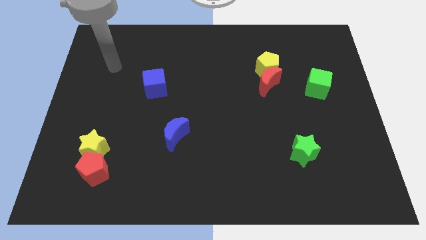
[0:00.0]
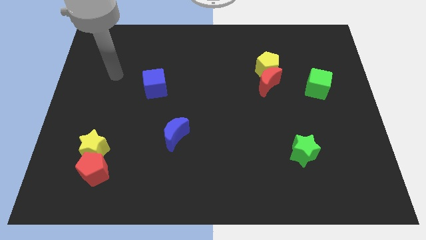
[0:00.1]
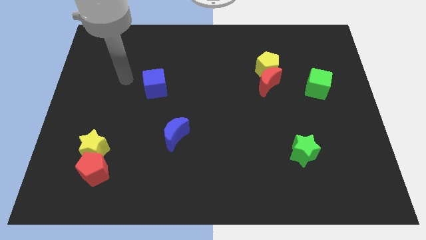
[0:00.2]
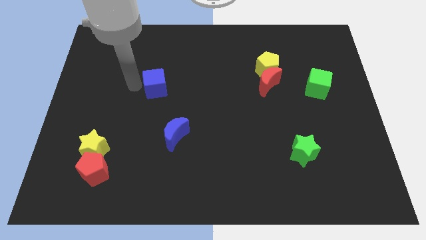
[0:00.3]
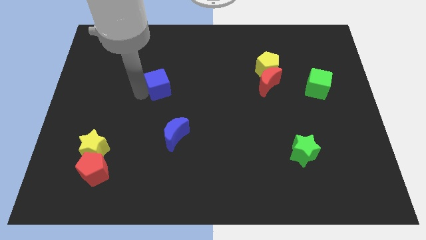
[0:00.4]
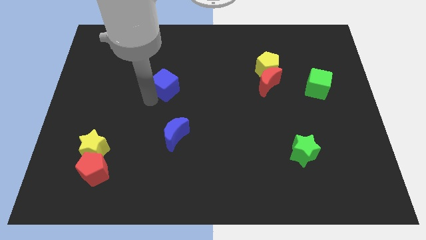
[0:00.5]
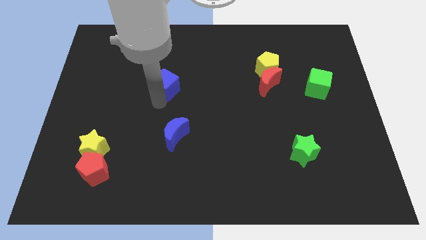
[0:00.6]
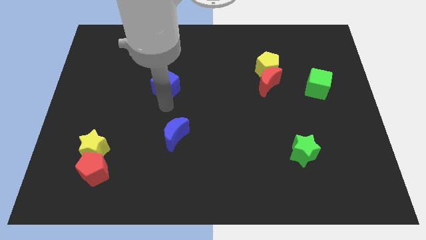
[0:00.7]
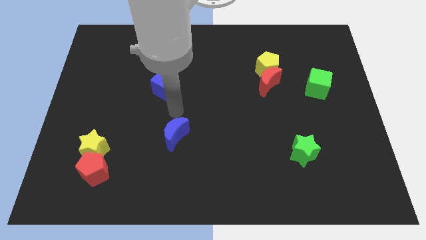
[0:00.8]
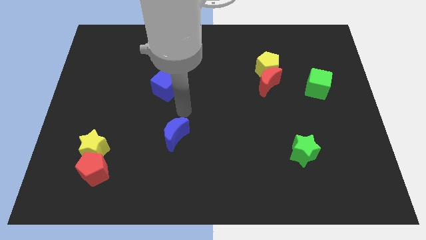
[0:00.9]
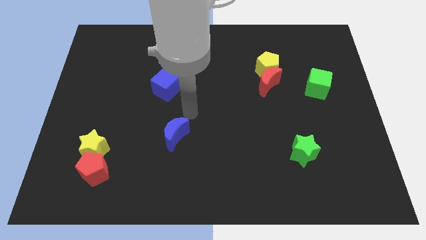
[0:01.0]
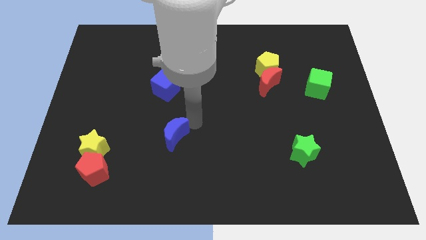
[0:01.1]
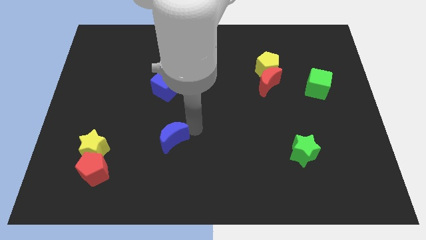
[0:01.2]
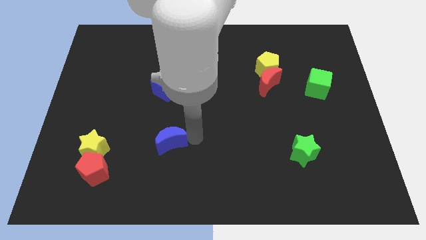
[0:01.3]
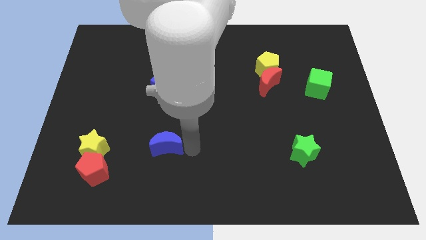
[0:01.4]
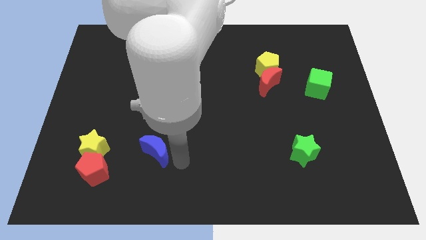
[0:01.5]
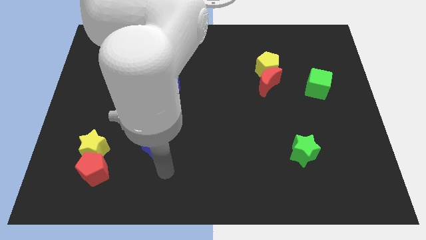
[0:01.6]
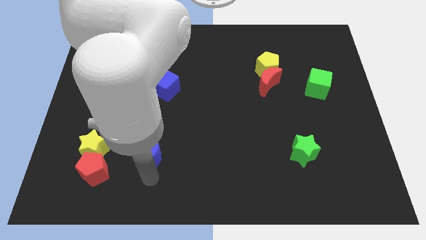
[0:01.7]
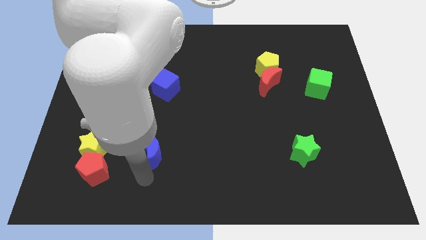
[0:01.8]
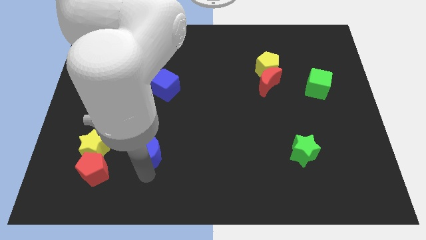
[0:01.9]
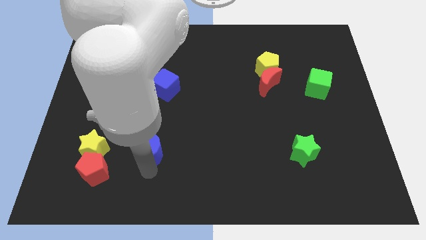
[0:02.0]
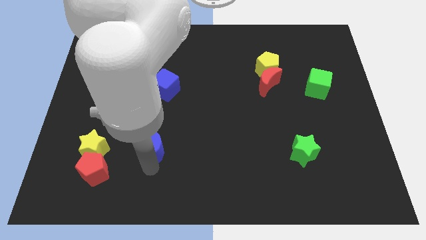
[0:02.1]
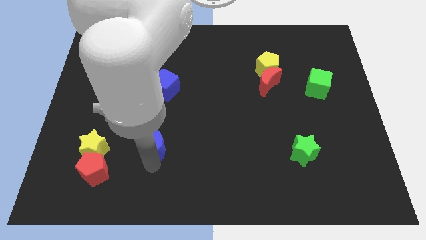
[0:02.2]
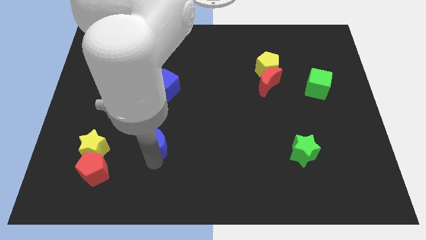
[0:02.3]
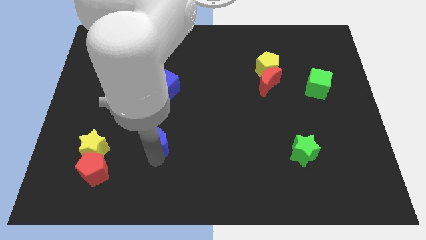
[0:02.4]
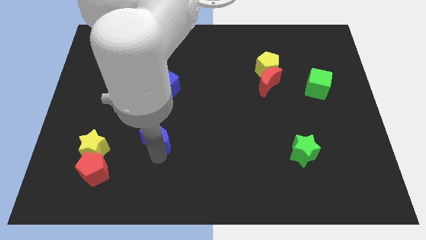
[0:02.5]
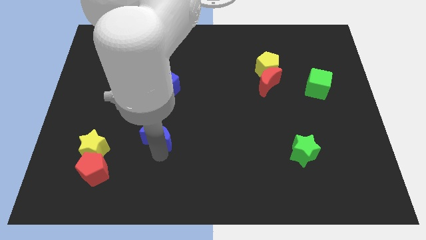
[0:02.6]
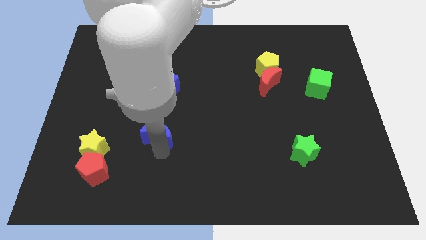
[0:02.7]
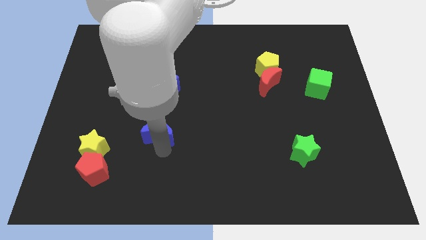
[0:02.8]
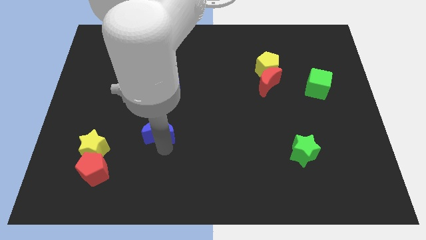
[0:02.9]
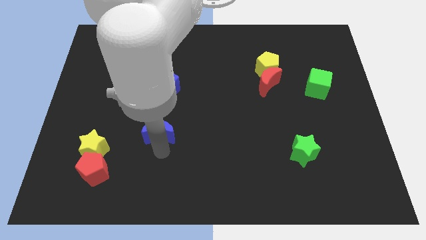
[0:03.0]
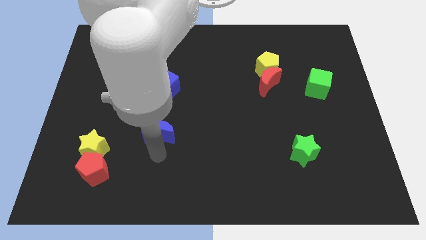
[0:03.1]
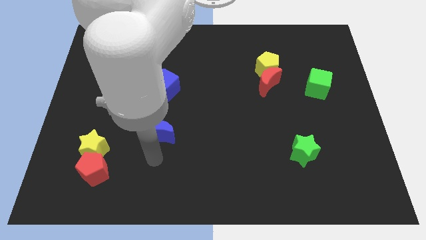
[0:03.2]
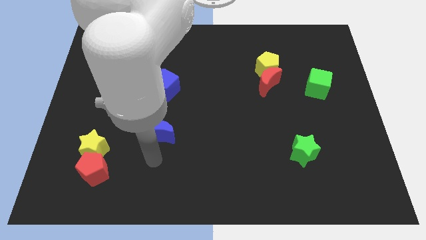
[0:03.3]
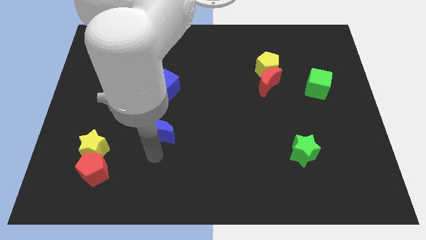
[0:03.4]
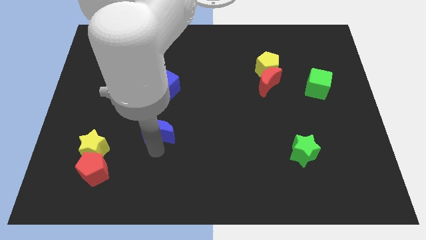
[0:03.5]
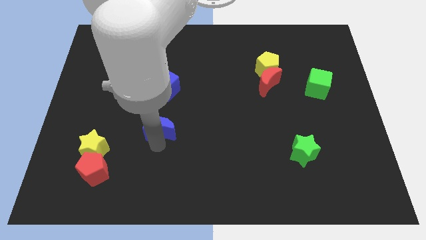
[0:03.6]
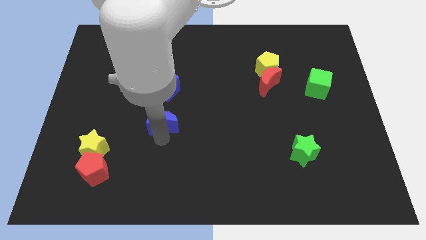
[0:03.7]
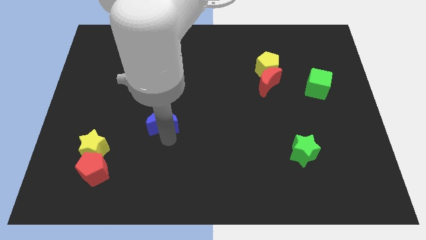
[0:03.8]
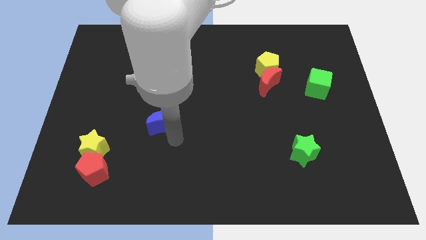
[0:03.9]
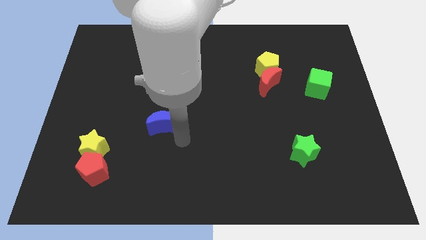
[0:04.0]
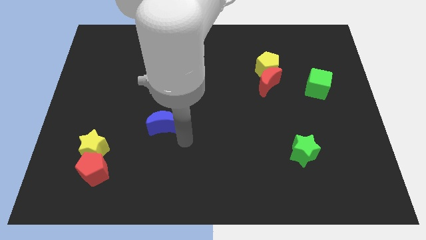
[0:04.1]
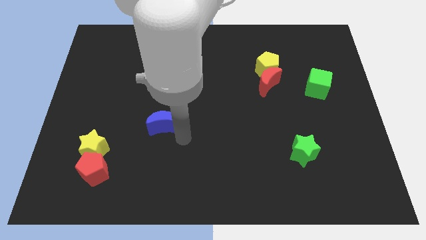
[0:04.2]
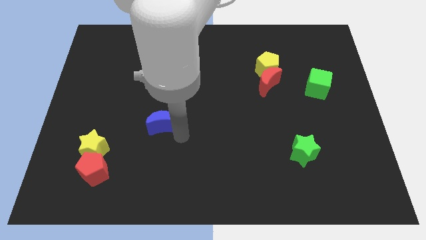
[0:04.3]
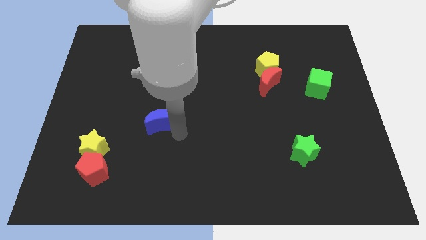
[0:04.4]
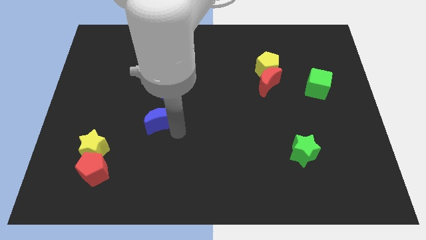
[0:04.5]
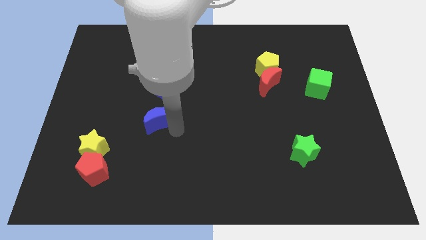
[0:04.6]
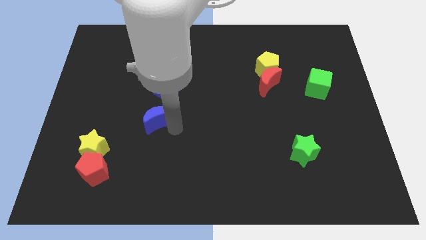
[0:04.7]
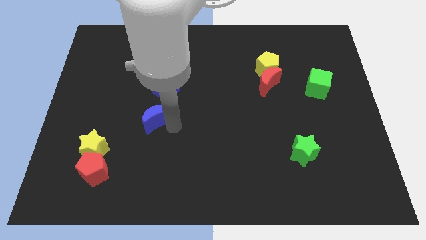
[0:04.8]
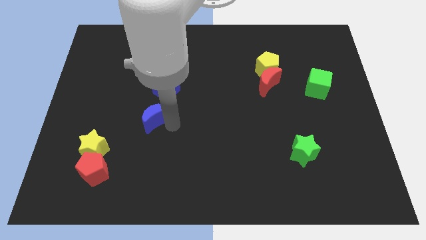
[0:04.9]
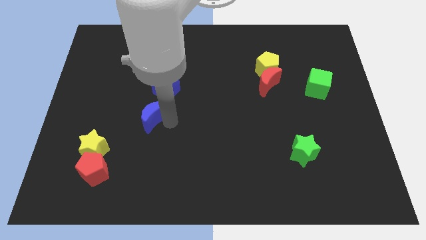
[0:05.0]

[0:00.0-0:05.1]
slide the blue moon slightly up and then to the left

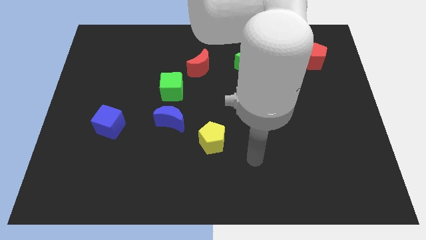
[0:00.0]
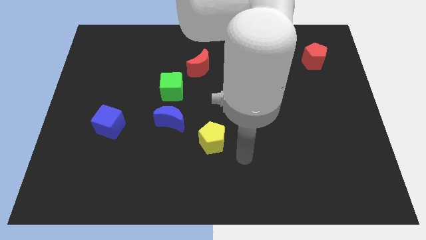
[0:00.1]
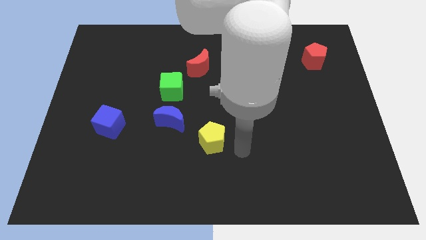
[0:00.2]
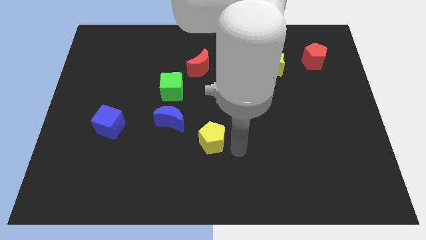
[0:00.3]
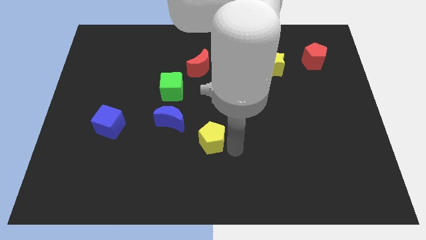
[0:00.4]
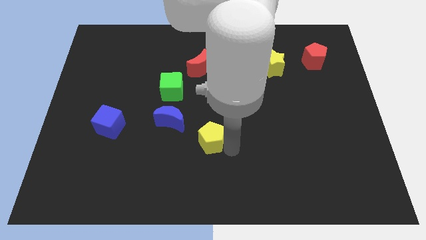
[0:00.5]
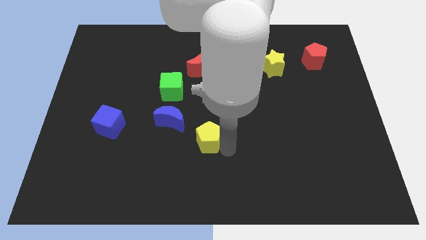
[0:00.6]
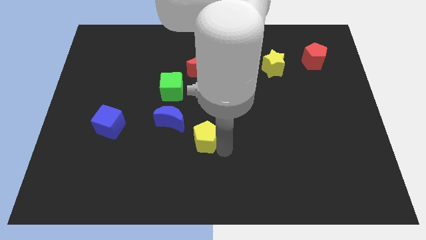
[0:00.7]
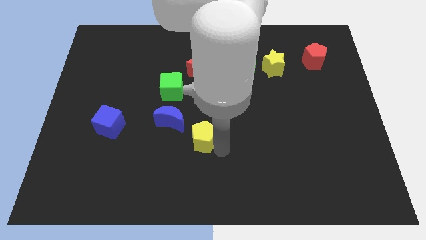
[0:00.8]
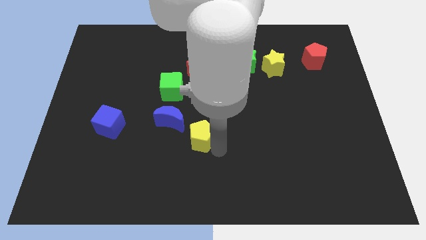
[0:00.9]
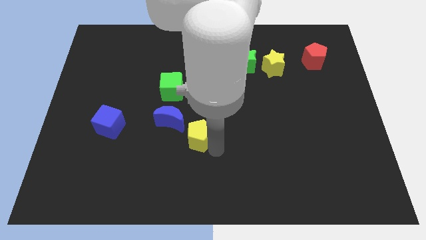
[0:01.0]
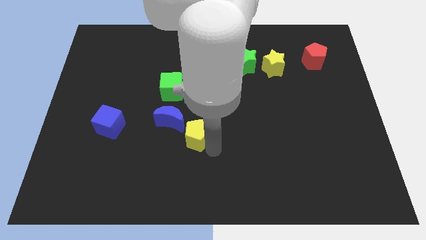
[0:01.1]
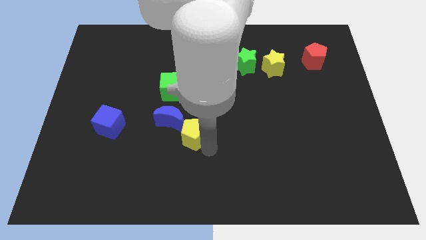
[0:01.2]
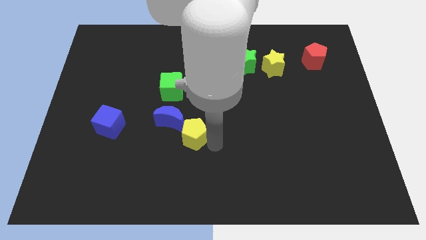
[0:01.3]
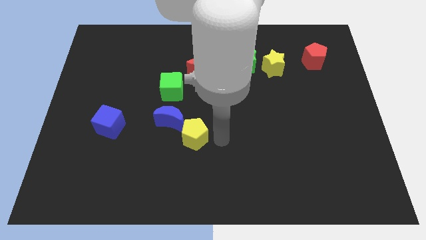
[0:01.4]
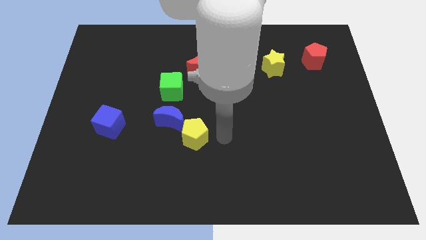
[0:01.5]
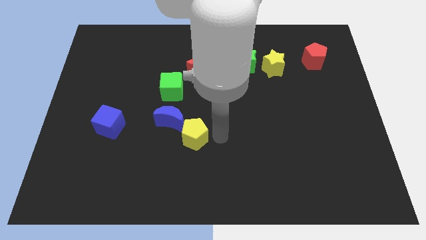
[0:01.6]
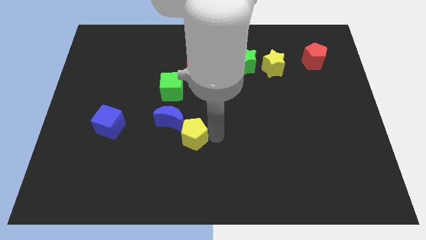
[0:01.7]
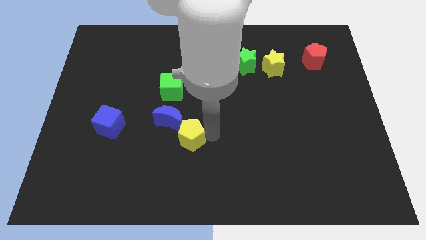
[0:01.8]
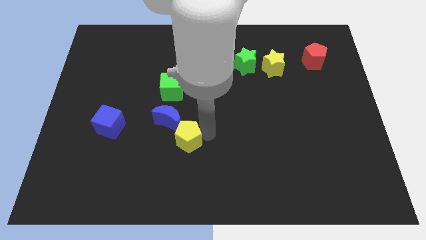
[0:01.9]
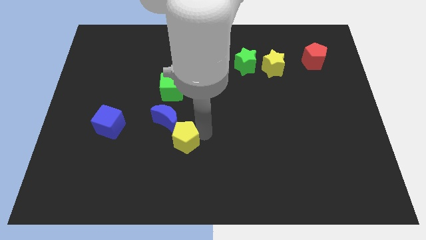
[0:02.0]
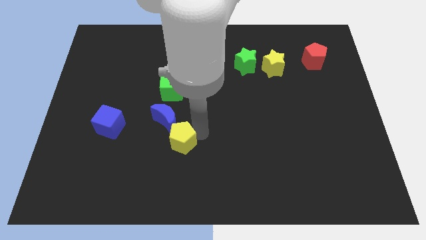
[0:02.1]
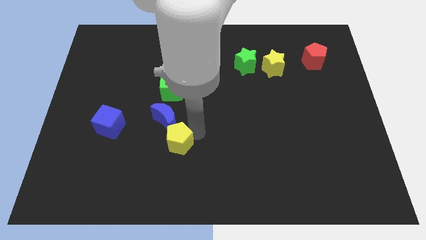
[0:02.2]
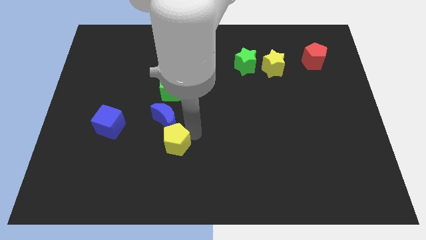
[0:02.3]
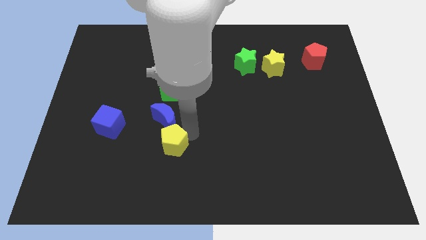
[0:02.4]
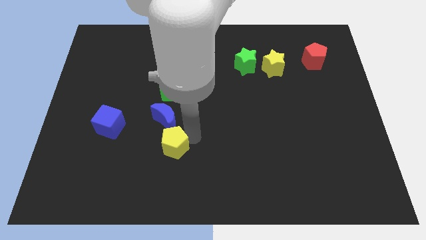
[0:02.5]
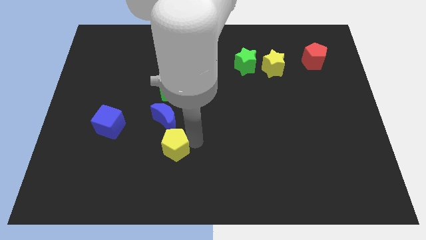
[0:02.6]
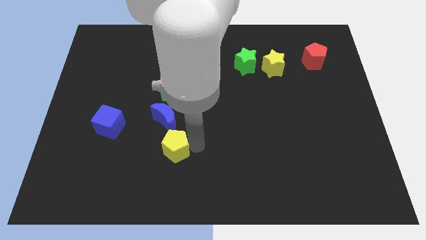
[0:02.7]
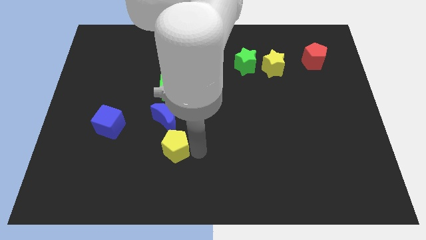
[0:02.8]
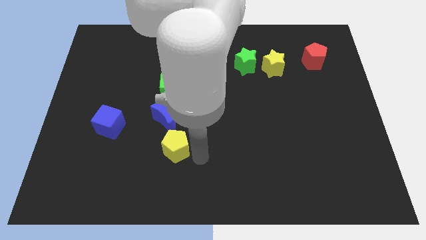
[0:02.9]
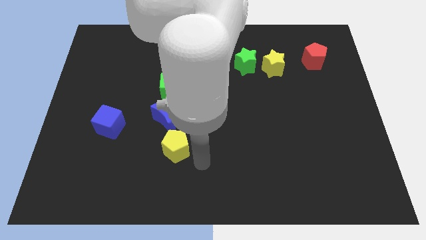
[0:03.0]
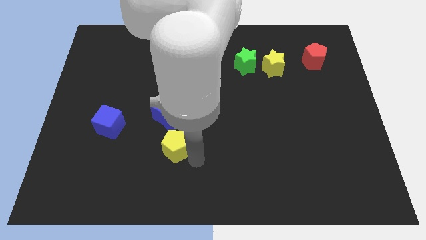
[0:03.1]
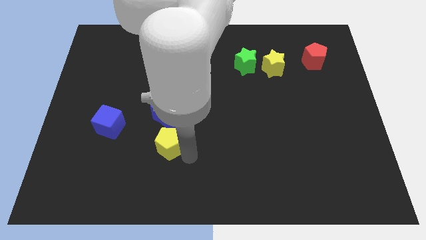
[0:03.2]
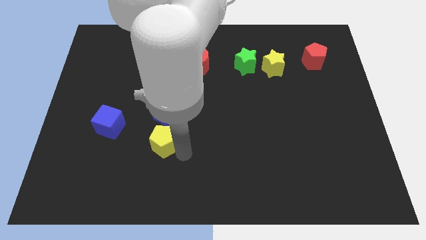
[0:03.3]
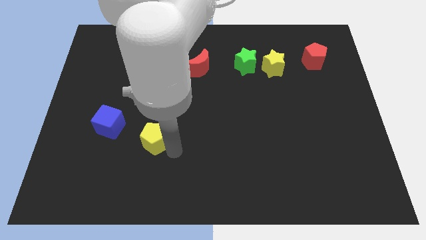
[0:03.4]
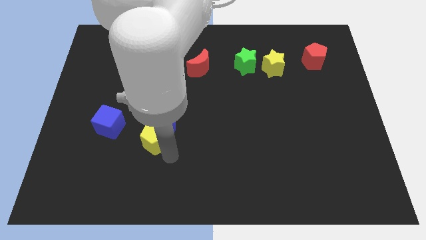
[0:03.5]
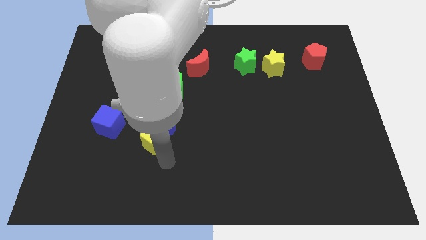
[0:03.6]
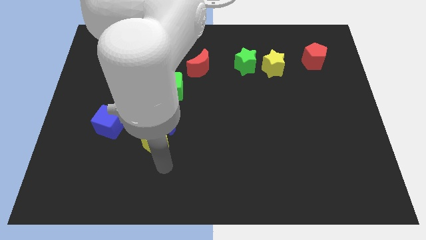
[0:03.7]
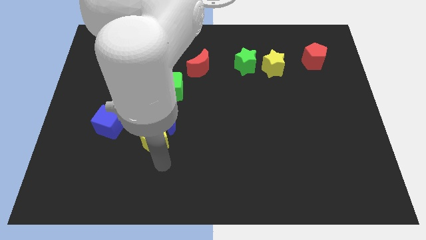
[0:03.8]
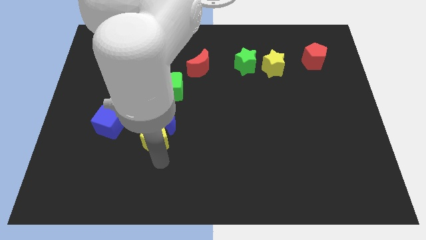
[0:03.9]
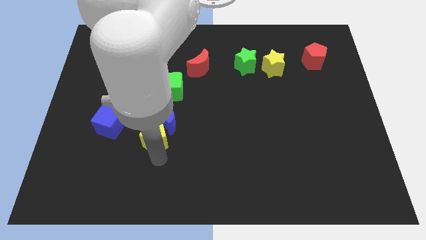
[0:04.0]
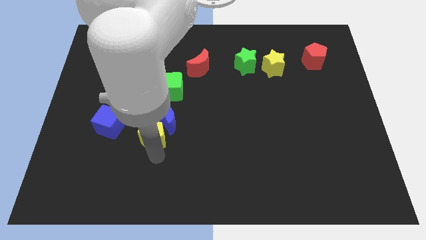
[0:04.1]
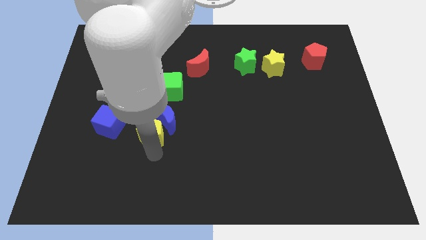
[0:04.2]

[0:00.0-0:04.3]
slightly slide the yellow pentagon up and left diagonally
